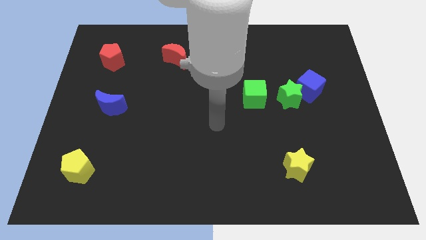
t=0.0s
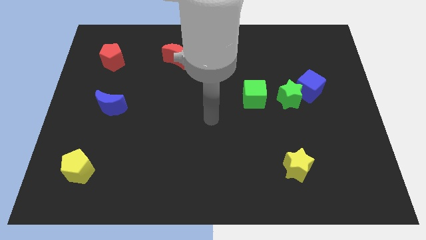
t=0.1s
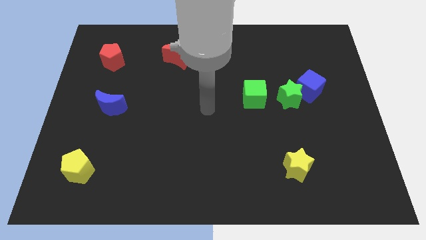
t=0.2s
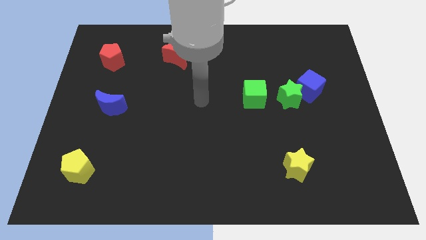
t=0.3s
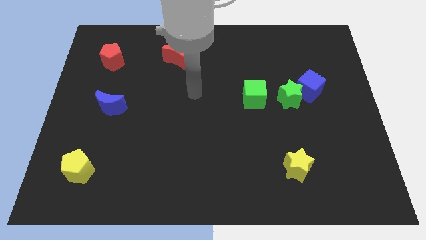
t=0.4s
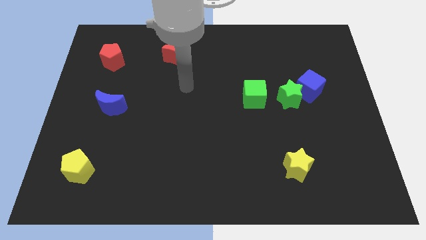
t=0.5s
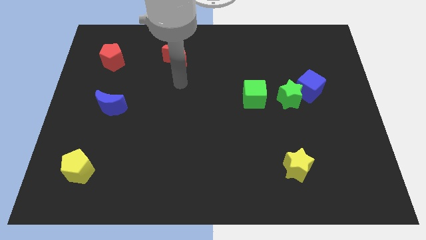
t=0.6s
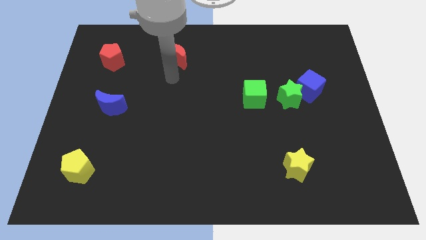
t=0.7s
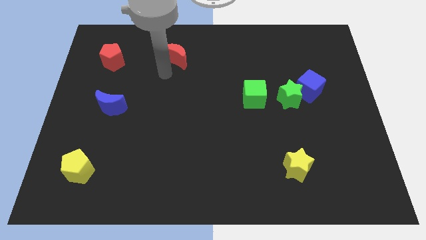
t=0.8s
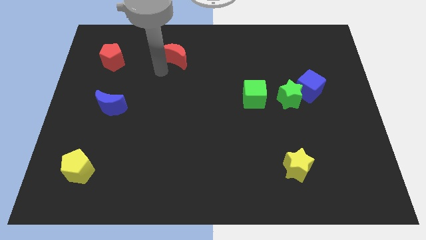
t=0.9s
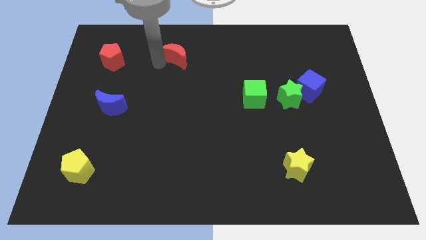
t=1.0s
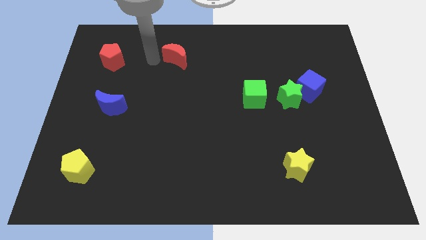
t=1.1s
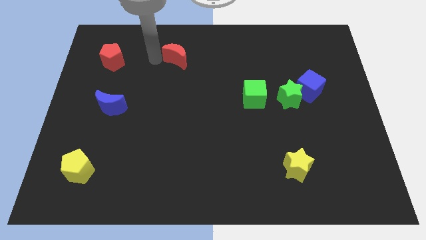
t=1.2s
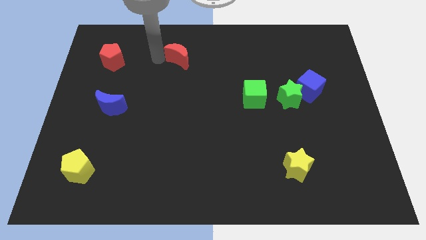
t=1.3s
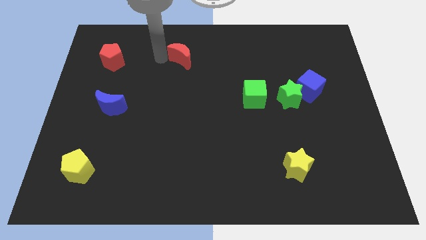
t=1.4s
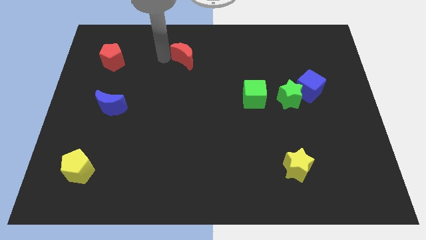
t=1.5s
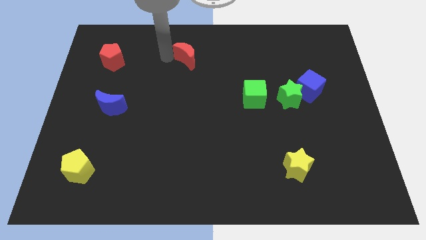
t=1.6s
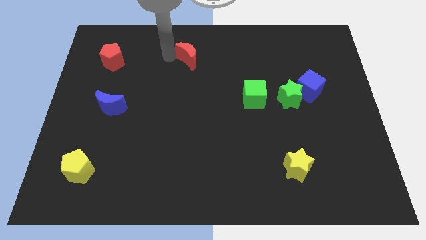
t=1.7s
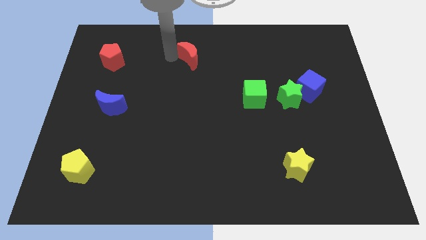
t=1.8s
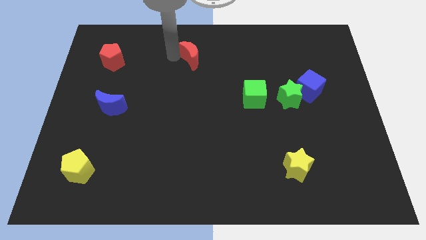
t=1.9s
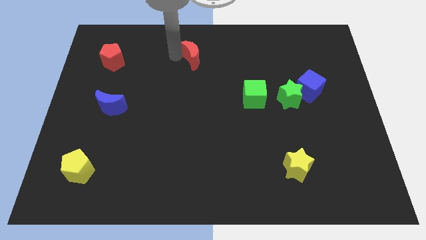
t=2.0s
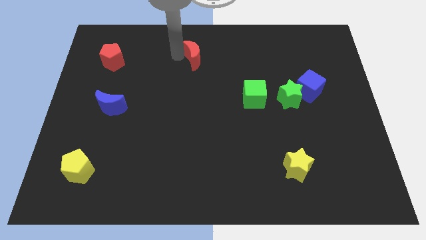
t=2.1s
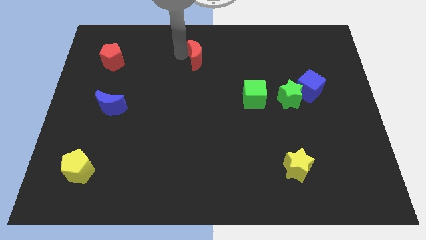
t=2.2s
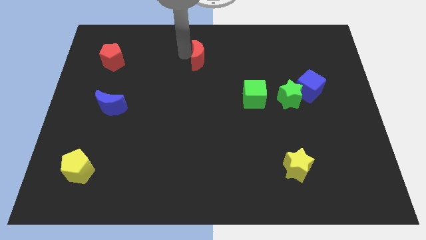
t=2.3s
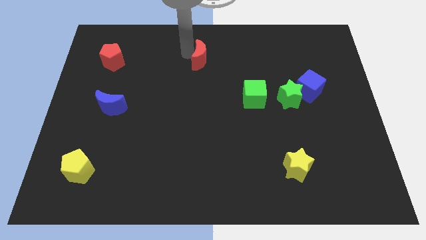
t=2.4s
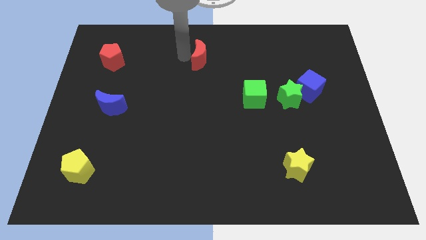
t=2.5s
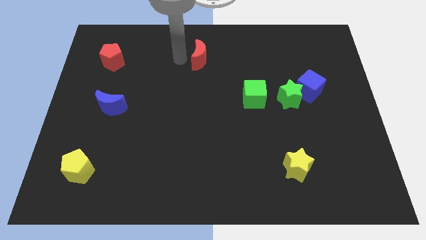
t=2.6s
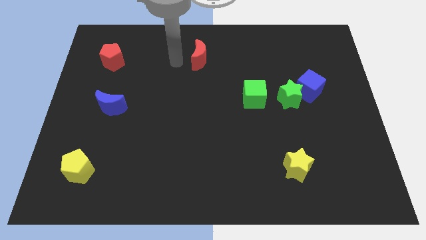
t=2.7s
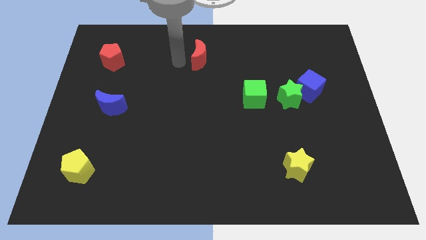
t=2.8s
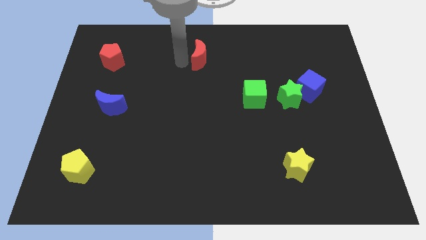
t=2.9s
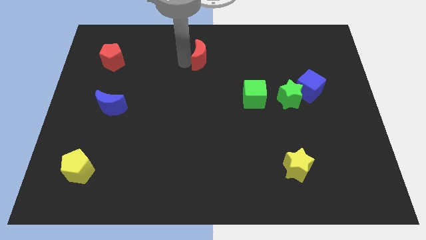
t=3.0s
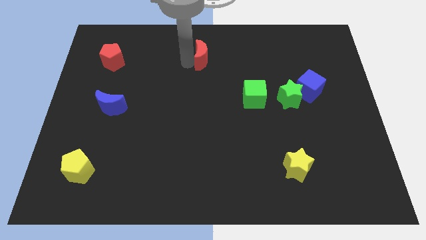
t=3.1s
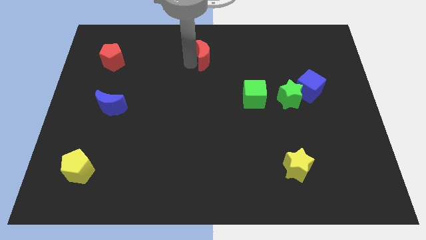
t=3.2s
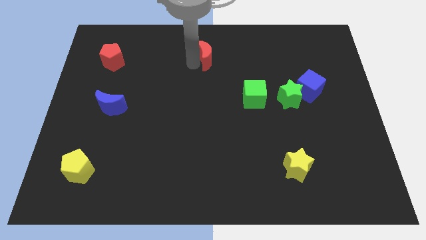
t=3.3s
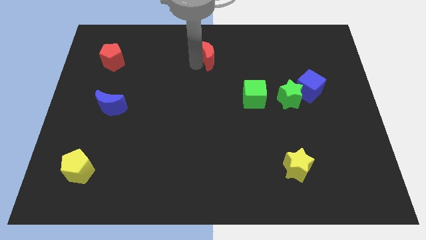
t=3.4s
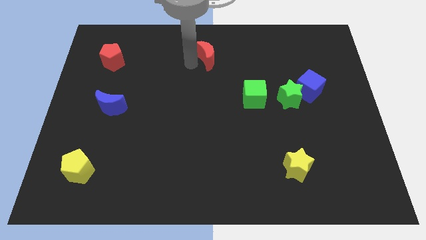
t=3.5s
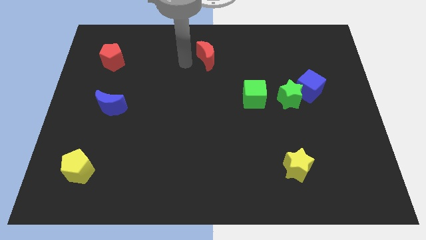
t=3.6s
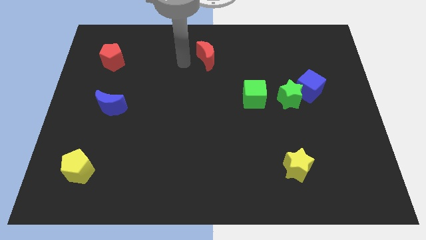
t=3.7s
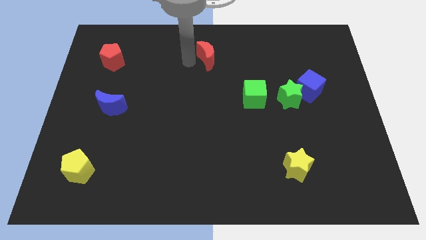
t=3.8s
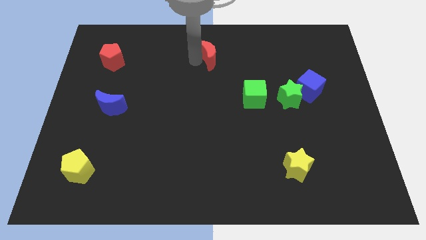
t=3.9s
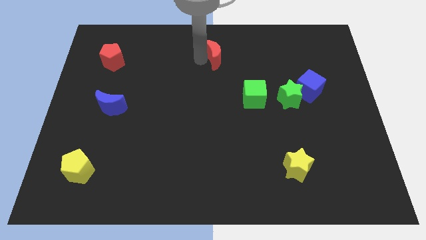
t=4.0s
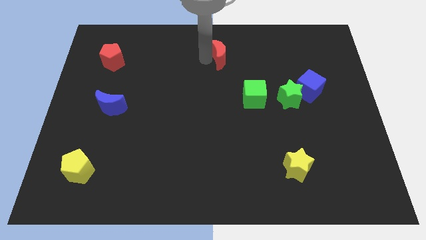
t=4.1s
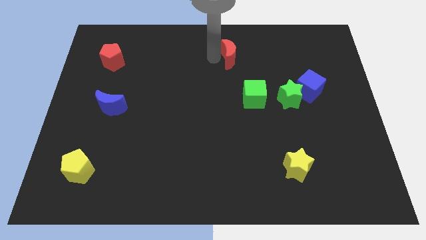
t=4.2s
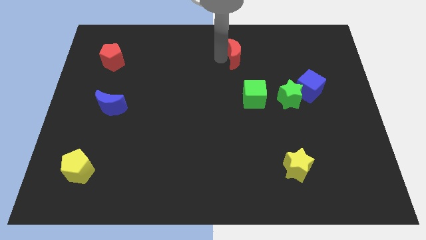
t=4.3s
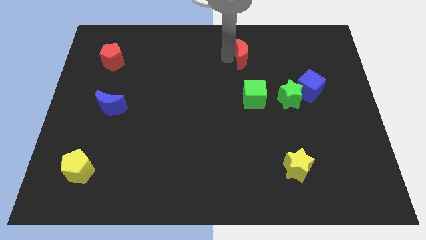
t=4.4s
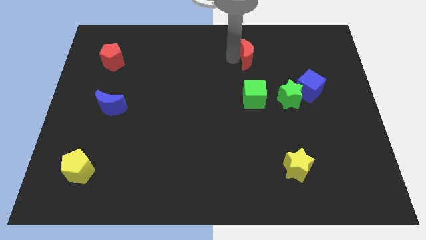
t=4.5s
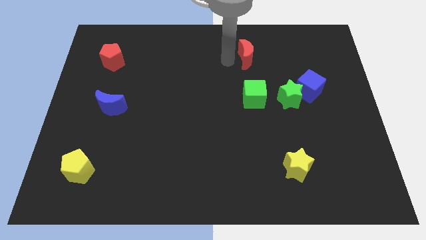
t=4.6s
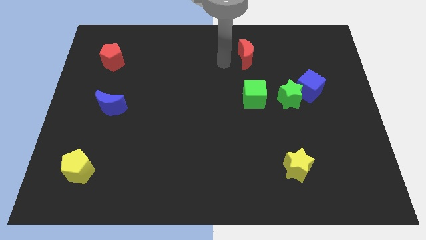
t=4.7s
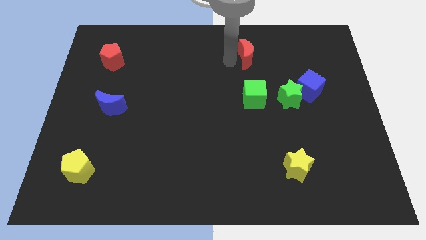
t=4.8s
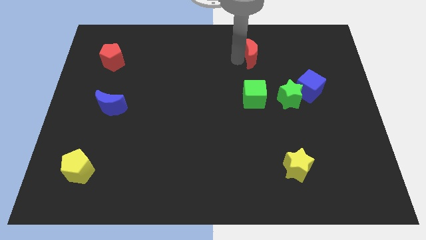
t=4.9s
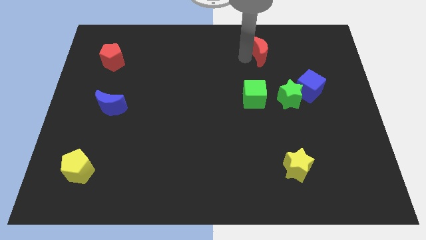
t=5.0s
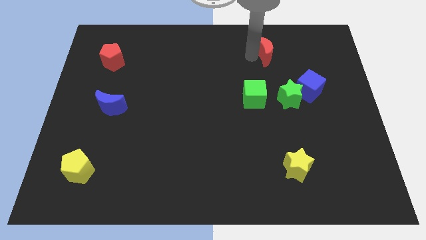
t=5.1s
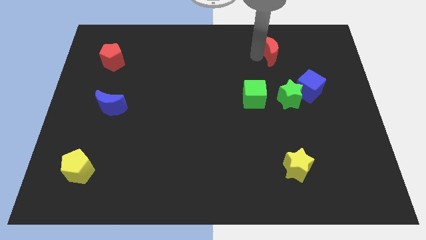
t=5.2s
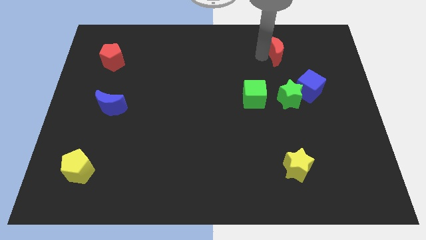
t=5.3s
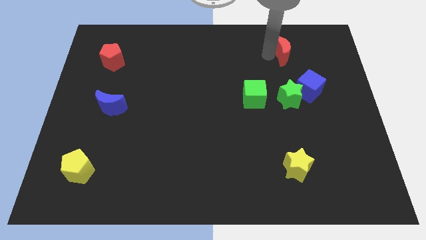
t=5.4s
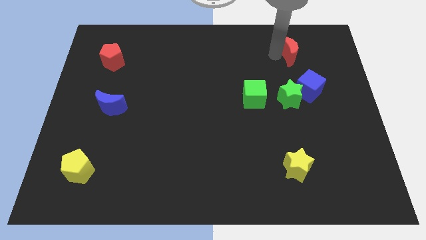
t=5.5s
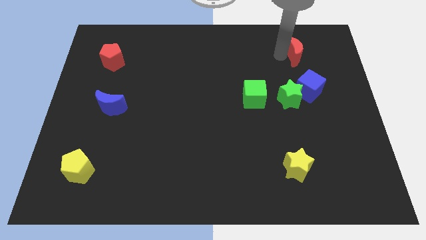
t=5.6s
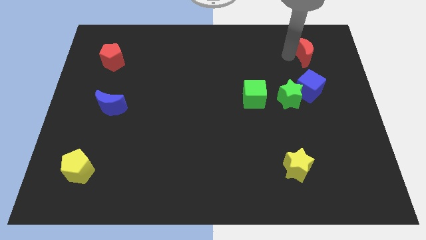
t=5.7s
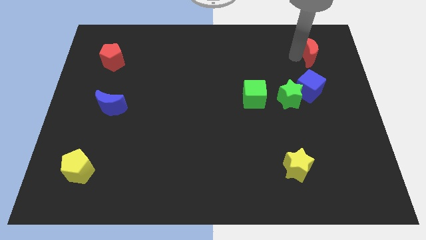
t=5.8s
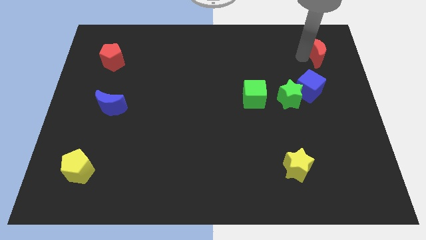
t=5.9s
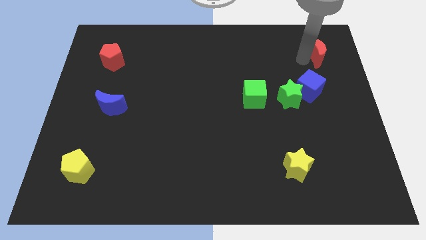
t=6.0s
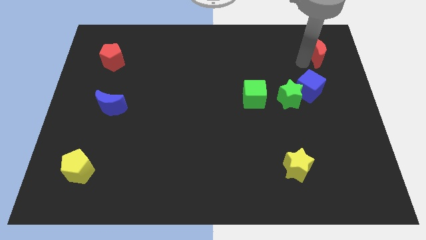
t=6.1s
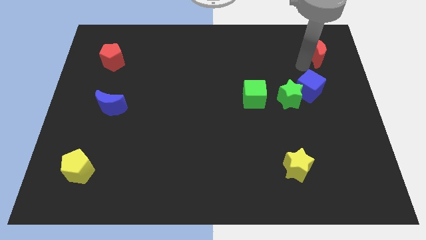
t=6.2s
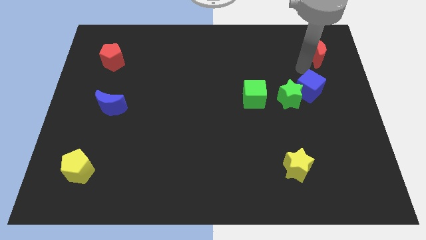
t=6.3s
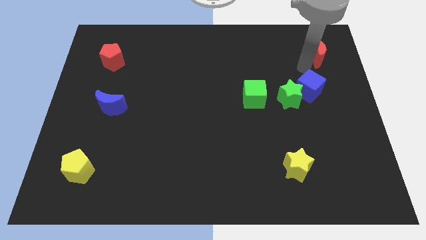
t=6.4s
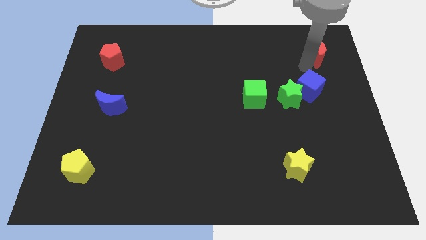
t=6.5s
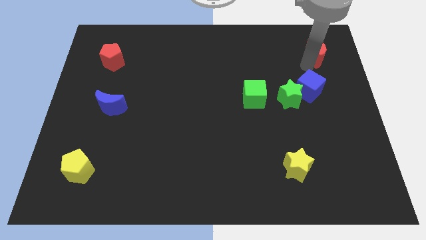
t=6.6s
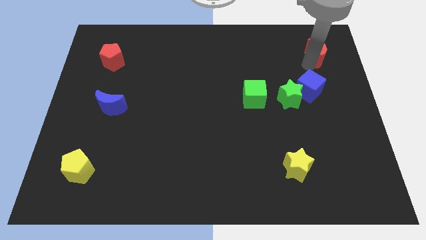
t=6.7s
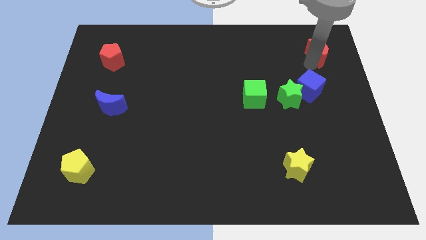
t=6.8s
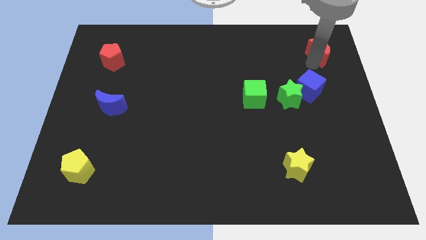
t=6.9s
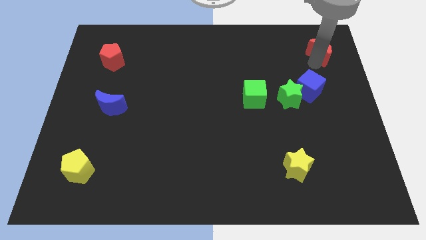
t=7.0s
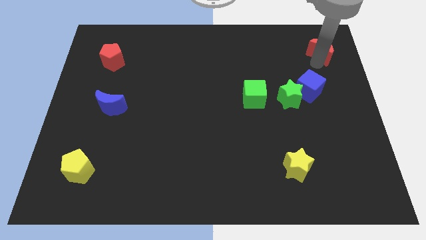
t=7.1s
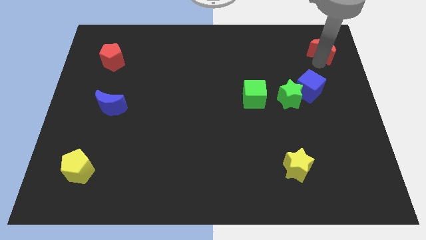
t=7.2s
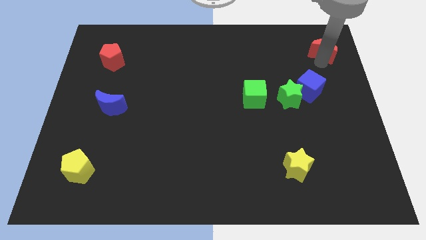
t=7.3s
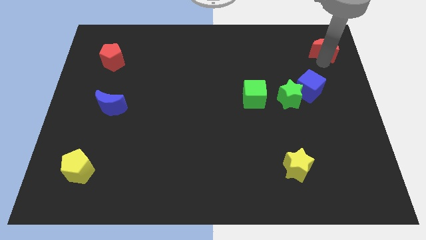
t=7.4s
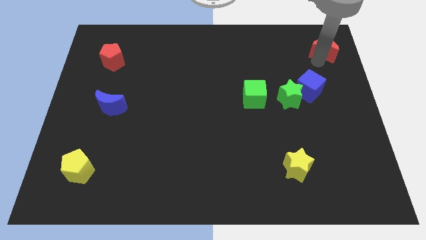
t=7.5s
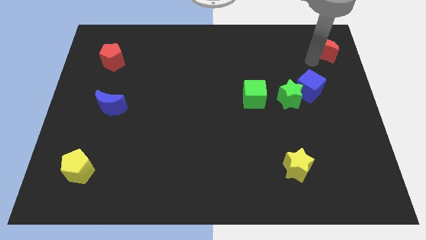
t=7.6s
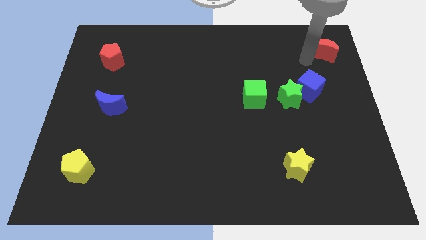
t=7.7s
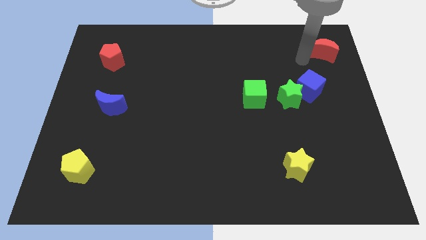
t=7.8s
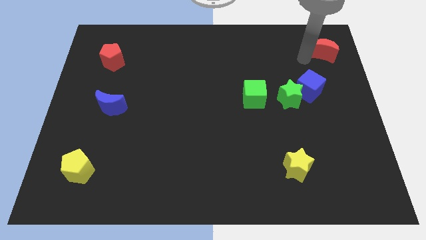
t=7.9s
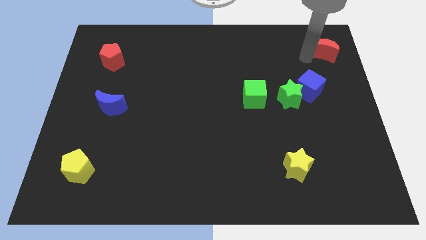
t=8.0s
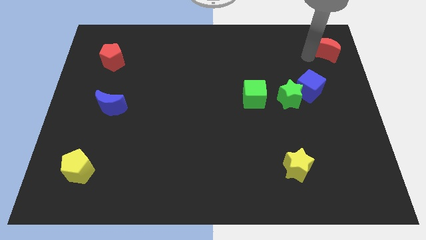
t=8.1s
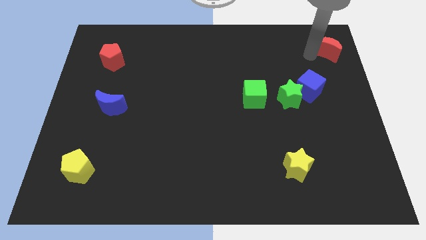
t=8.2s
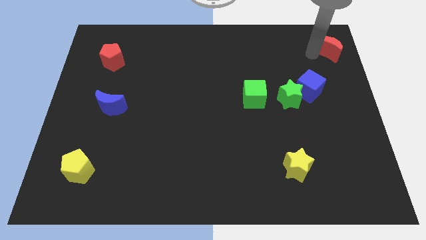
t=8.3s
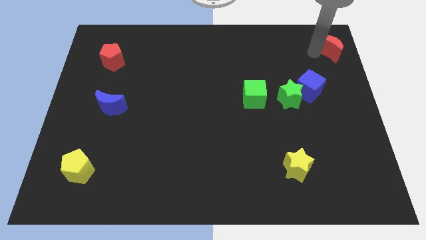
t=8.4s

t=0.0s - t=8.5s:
push the red moon to the upper right corner
